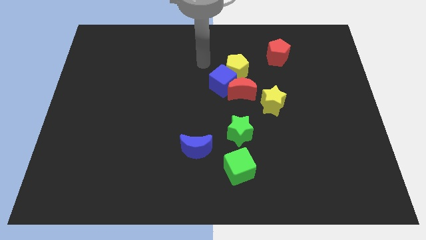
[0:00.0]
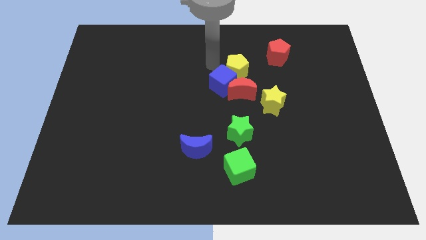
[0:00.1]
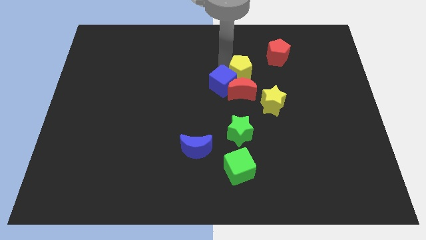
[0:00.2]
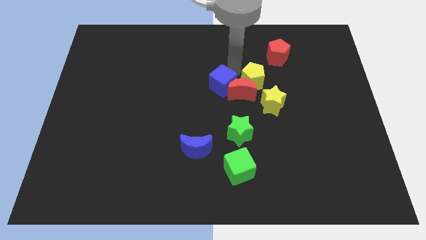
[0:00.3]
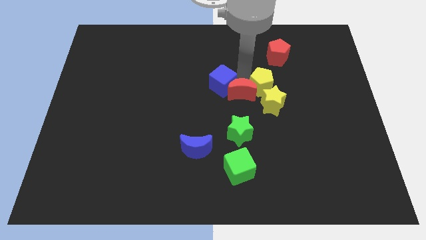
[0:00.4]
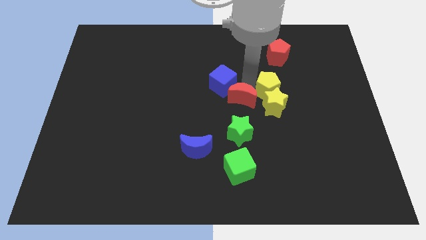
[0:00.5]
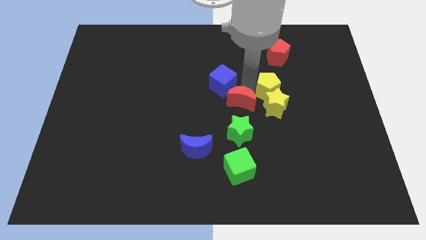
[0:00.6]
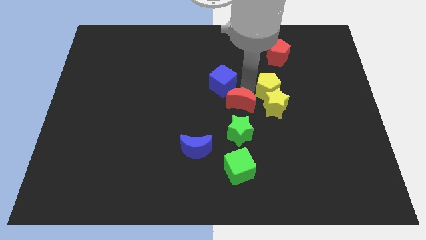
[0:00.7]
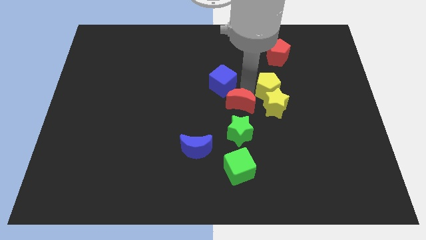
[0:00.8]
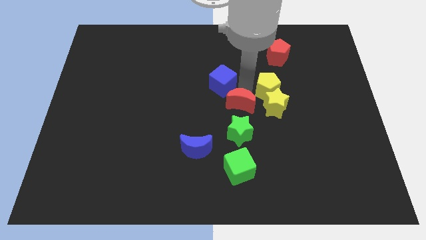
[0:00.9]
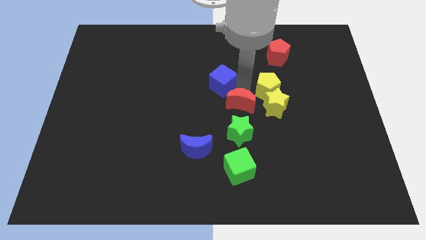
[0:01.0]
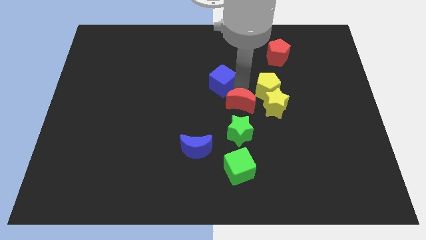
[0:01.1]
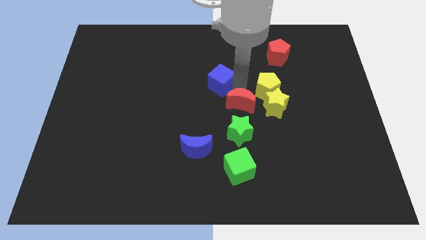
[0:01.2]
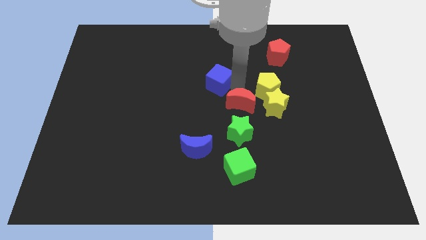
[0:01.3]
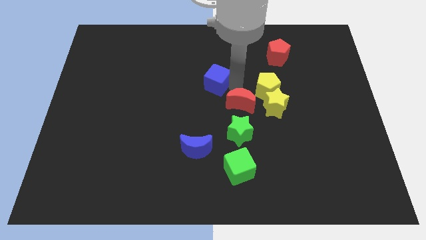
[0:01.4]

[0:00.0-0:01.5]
move the blue cube away from the red moon and yellow pentagon

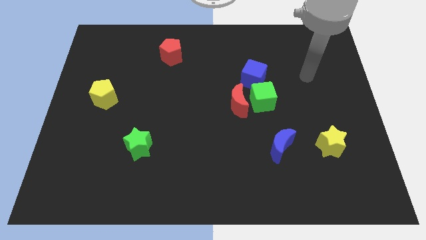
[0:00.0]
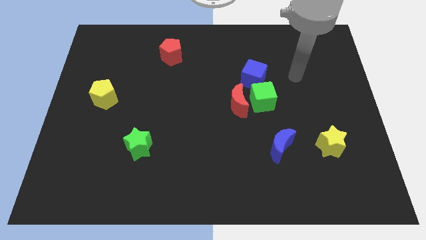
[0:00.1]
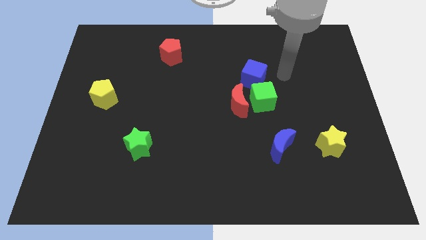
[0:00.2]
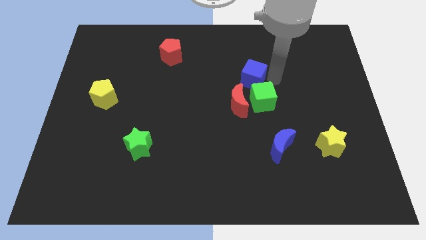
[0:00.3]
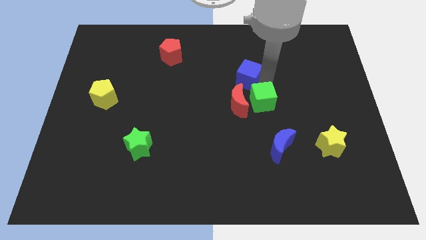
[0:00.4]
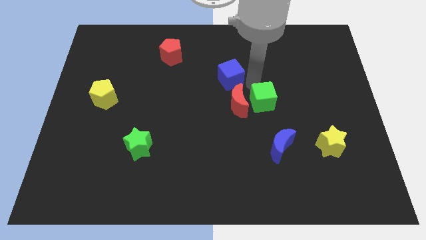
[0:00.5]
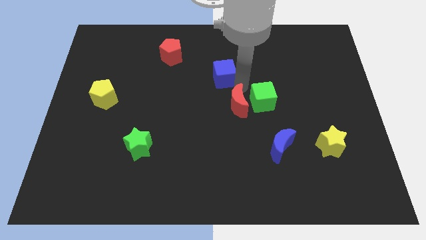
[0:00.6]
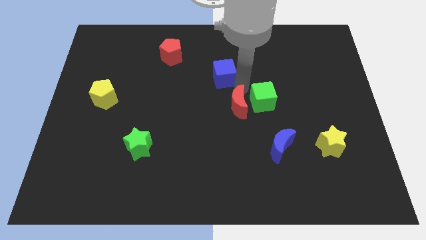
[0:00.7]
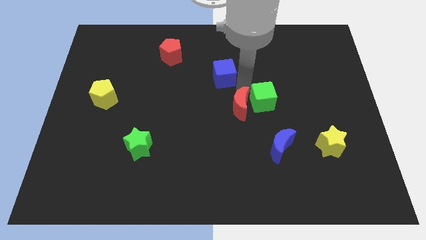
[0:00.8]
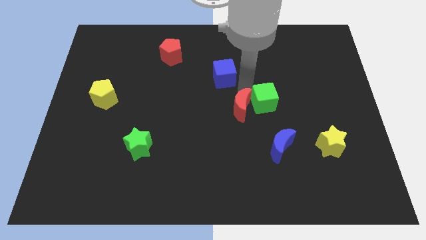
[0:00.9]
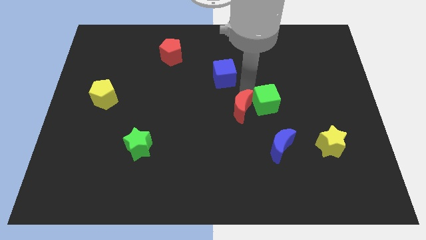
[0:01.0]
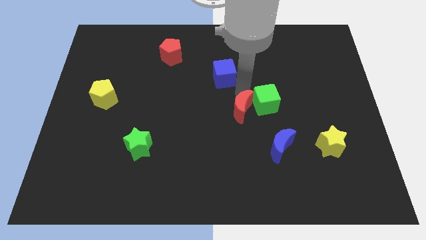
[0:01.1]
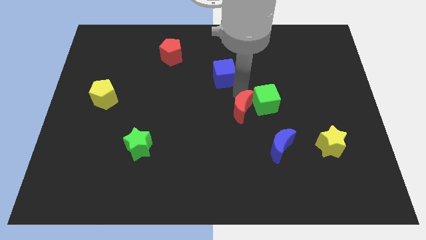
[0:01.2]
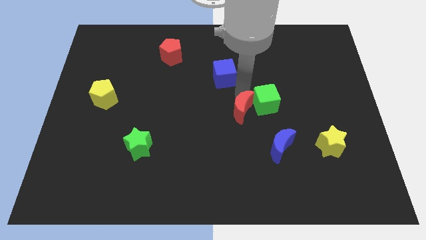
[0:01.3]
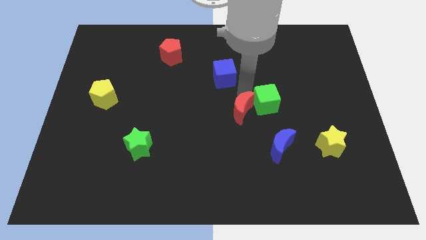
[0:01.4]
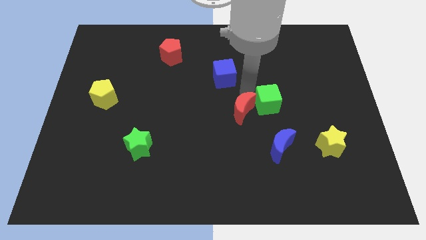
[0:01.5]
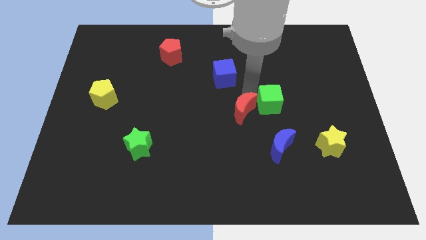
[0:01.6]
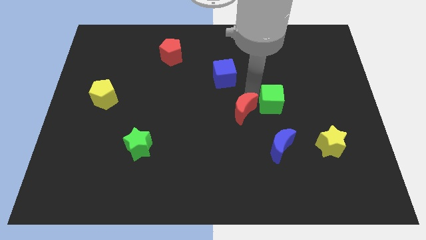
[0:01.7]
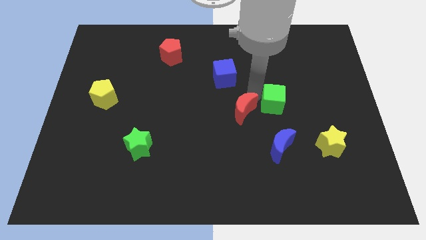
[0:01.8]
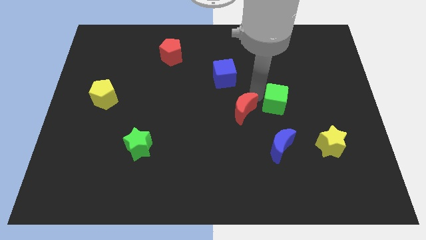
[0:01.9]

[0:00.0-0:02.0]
move the green cube away from the red moon and blue cube

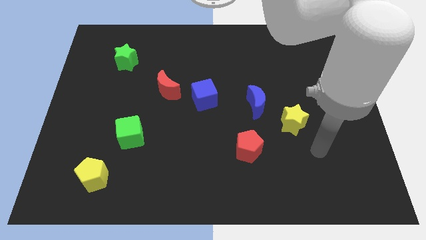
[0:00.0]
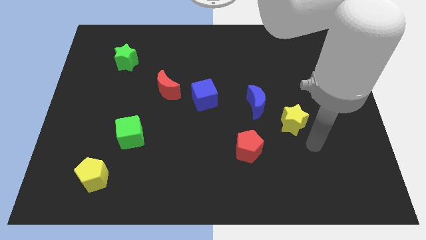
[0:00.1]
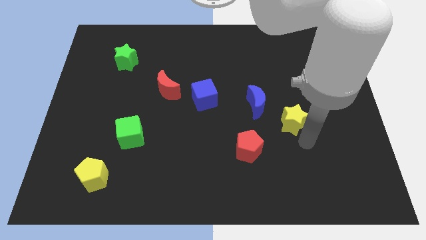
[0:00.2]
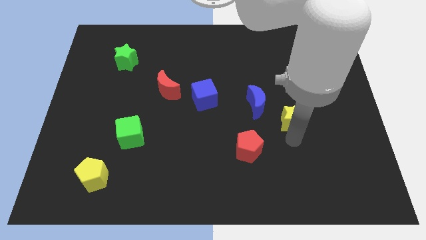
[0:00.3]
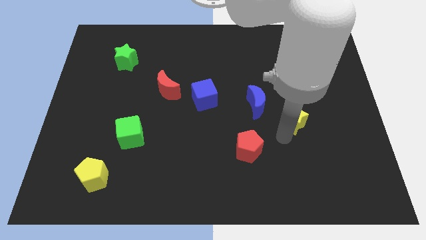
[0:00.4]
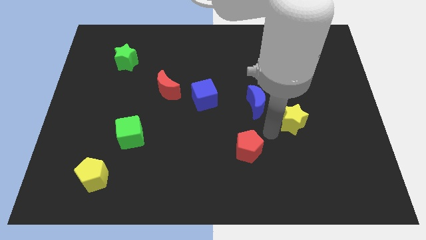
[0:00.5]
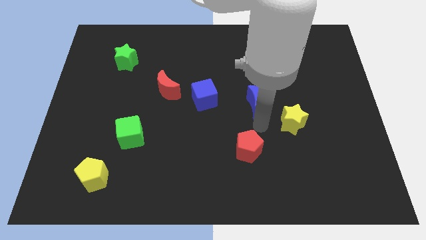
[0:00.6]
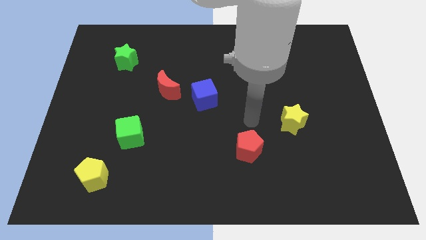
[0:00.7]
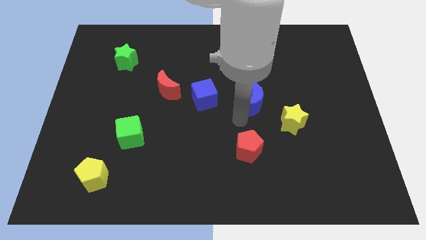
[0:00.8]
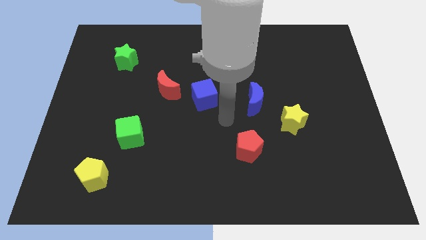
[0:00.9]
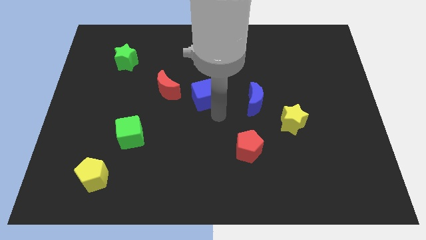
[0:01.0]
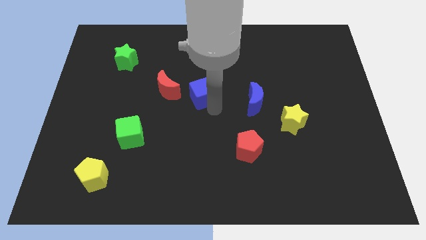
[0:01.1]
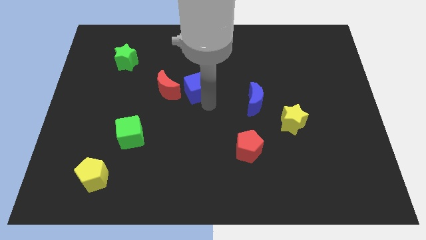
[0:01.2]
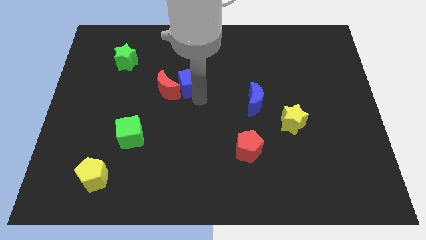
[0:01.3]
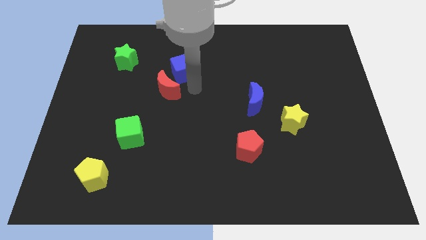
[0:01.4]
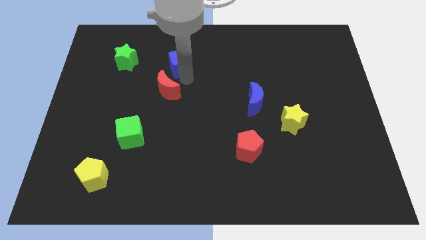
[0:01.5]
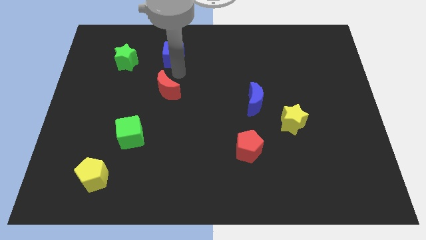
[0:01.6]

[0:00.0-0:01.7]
pull the red moon apart from the blue cube

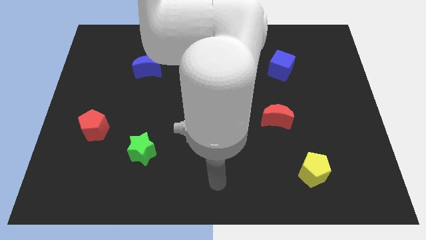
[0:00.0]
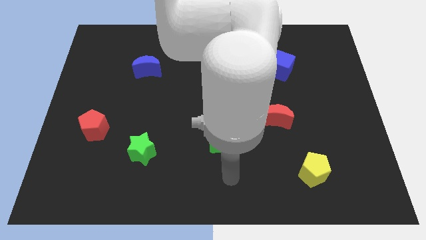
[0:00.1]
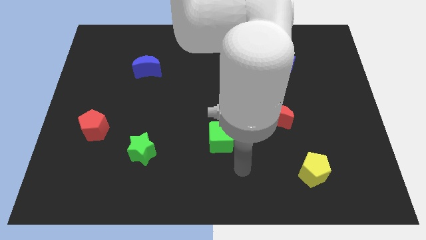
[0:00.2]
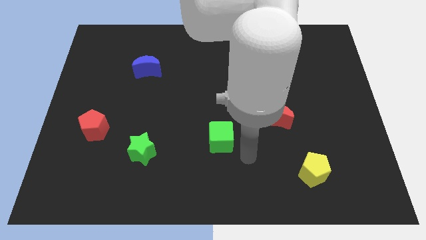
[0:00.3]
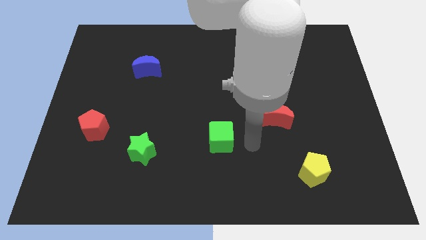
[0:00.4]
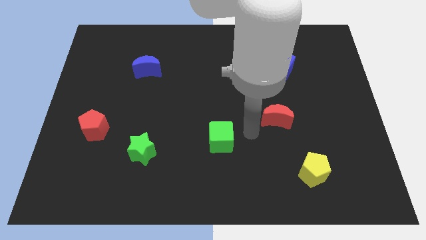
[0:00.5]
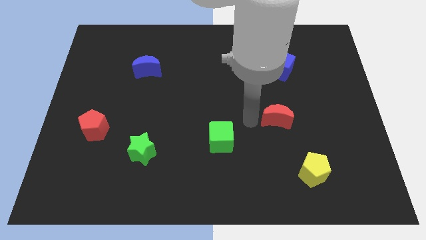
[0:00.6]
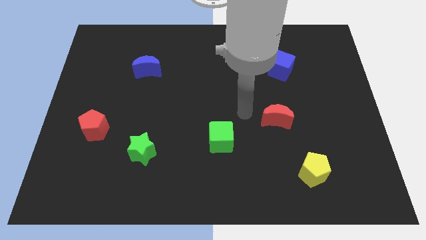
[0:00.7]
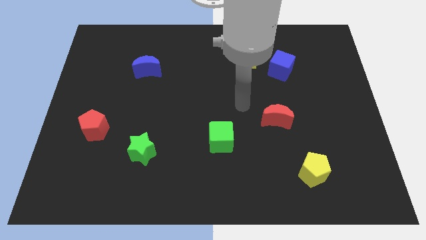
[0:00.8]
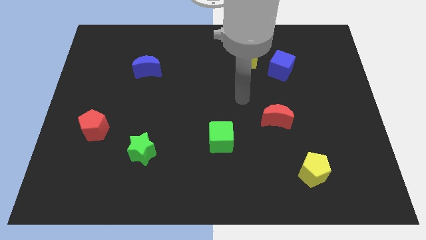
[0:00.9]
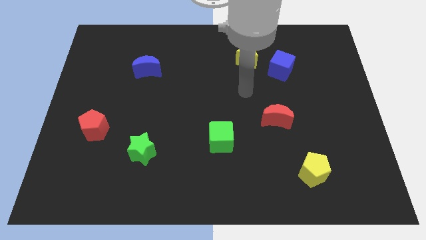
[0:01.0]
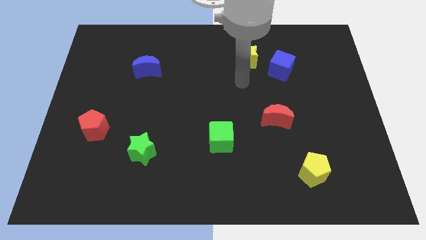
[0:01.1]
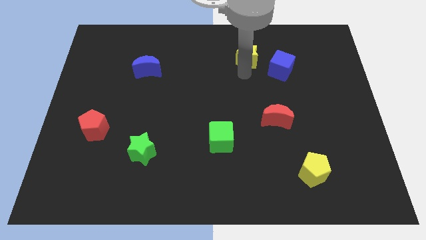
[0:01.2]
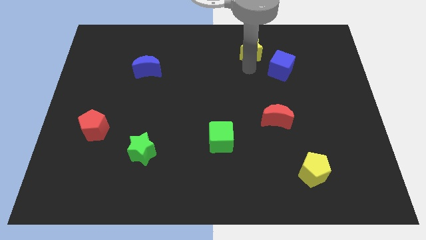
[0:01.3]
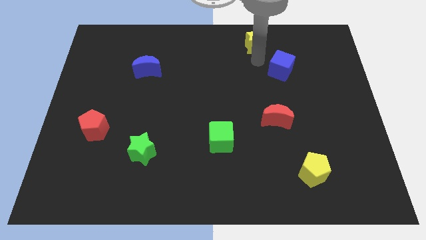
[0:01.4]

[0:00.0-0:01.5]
separate the blue cube from the yellow star

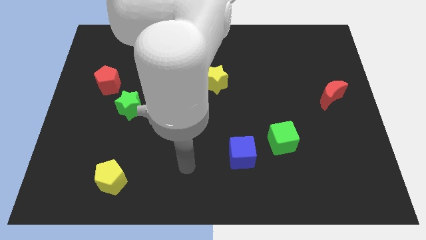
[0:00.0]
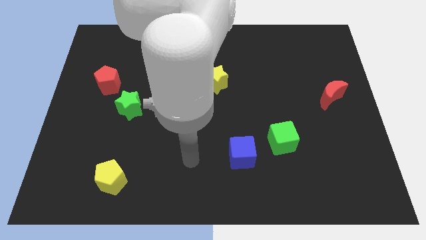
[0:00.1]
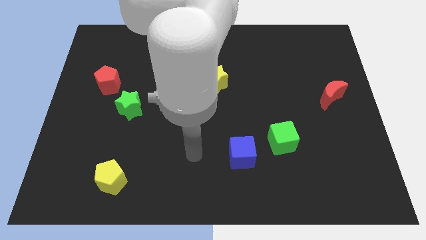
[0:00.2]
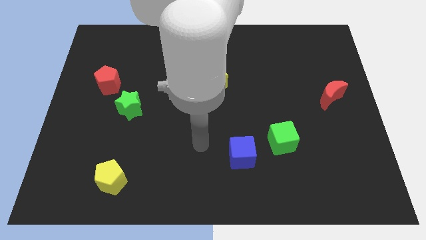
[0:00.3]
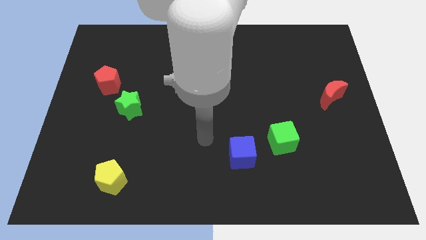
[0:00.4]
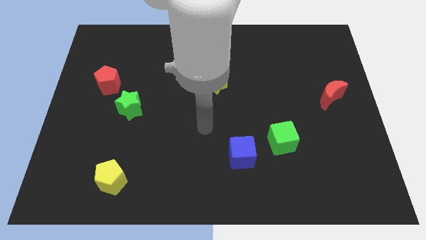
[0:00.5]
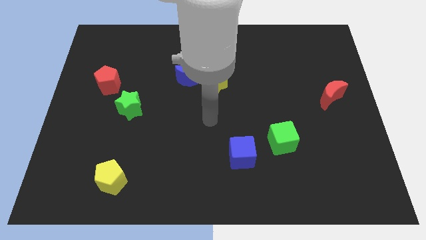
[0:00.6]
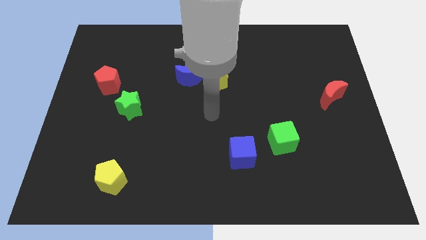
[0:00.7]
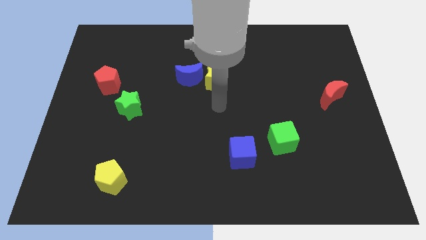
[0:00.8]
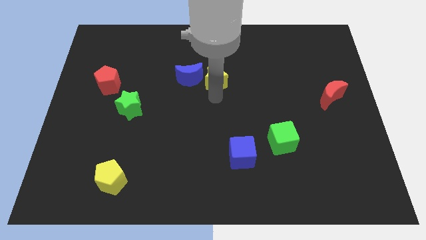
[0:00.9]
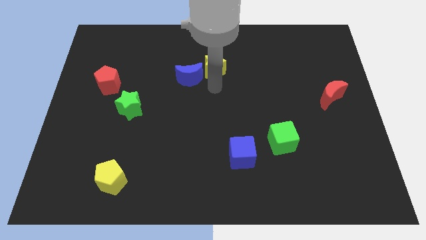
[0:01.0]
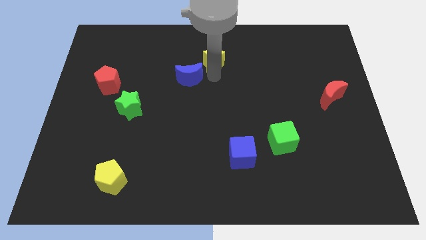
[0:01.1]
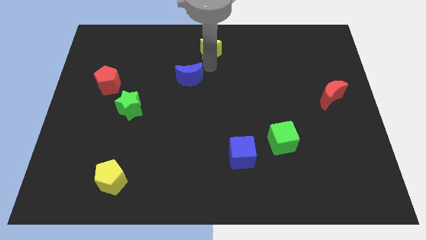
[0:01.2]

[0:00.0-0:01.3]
pull the blue moon apart from the yellow star

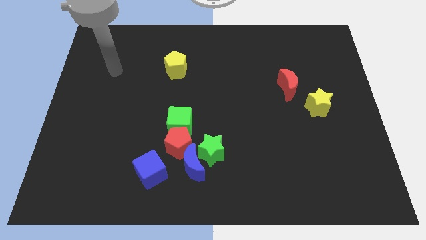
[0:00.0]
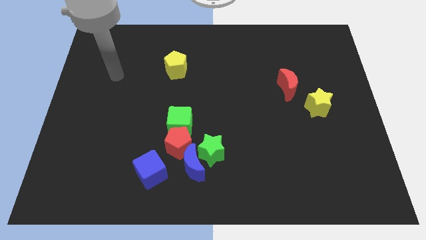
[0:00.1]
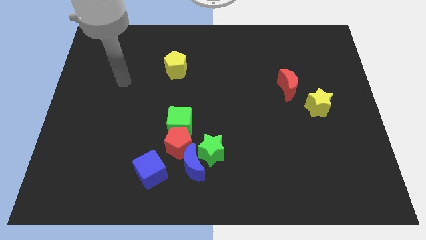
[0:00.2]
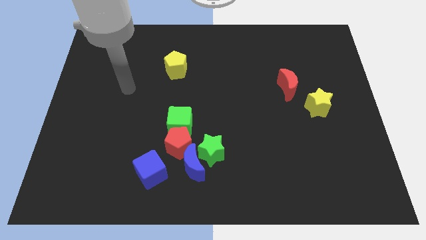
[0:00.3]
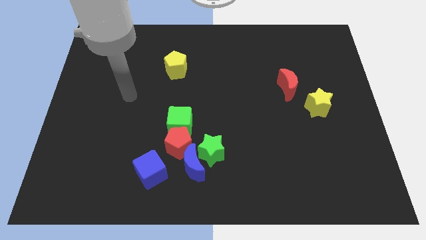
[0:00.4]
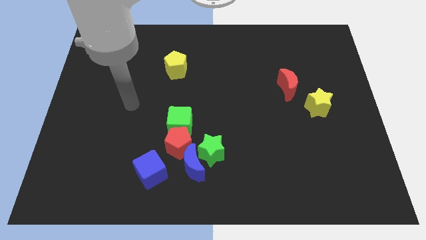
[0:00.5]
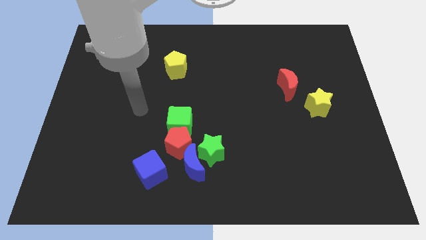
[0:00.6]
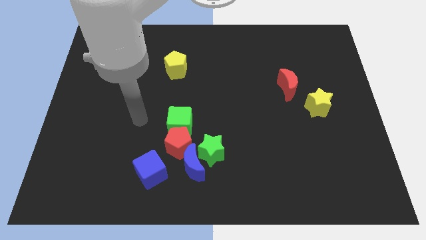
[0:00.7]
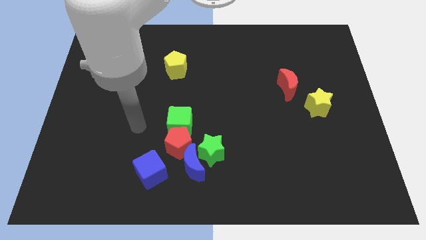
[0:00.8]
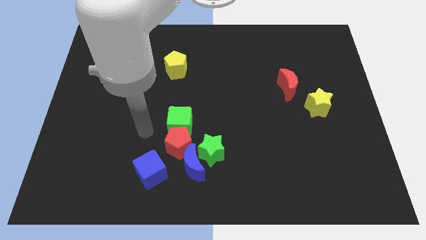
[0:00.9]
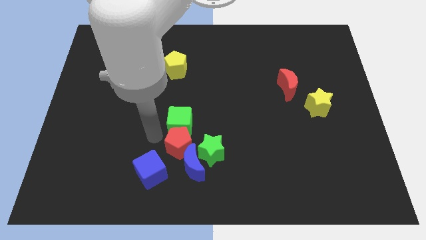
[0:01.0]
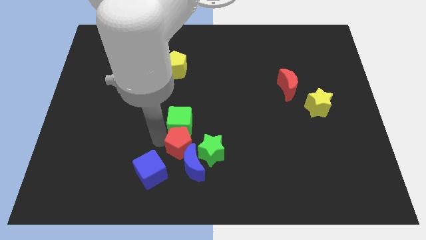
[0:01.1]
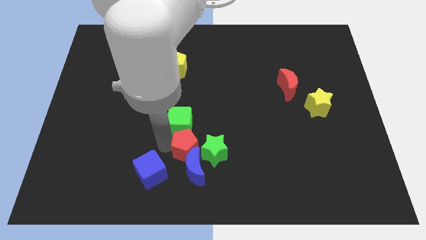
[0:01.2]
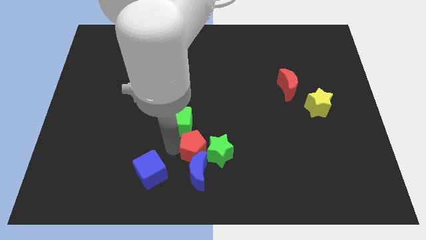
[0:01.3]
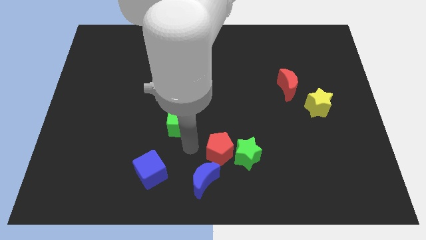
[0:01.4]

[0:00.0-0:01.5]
pull the green cube apart from the red pentagon
